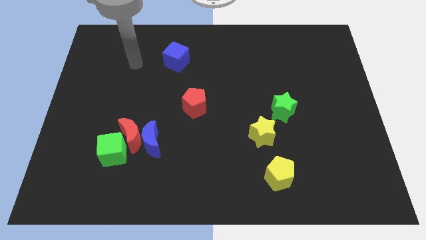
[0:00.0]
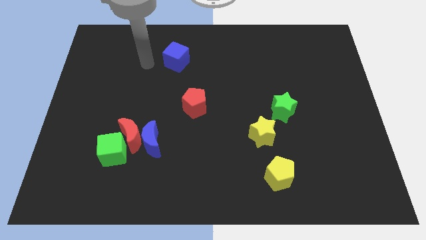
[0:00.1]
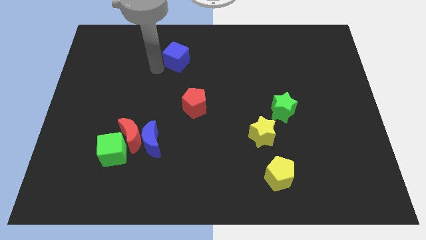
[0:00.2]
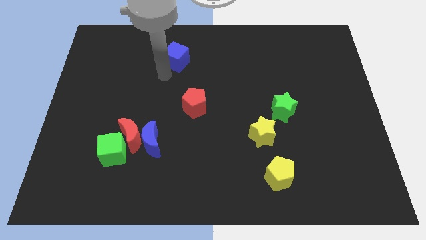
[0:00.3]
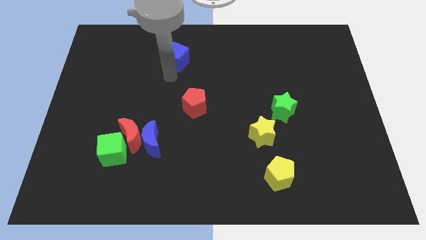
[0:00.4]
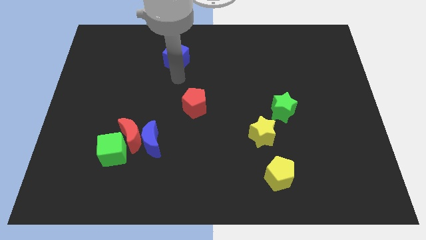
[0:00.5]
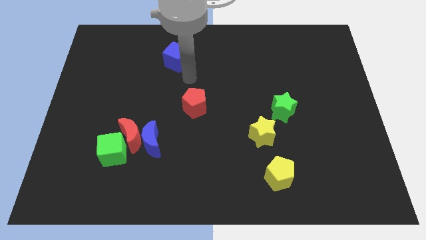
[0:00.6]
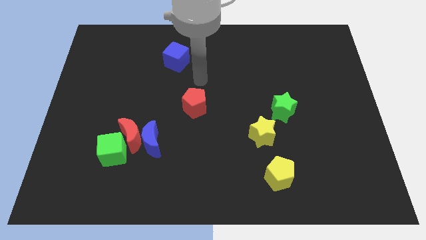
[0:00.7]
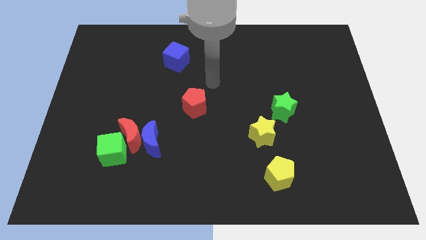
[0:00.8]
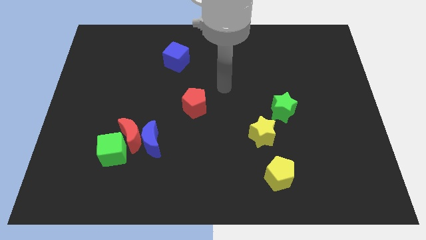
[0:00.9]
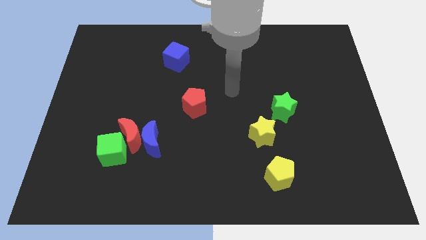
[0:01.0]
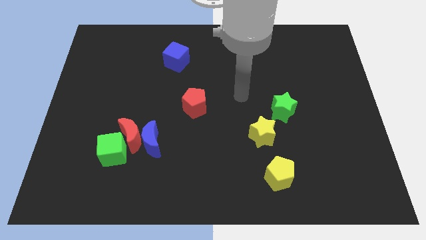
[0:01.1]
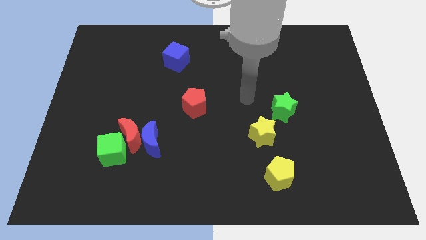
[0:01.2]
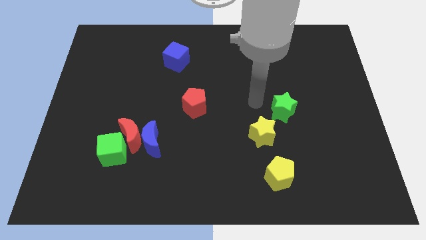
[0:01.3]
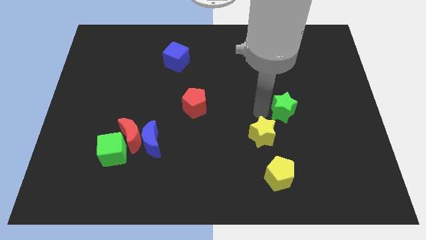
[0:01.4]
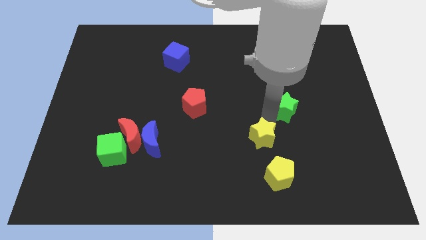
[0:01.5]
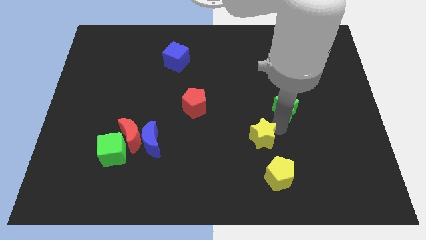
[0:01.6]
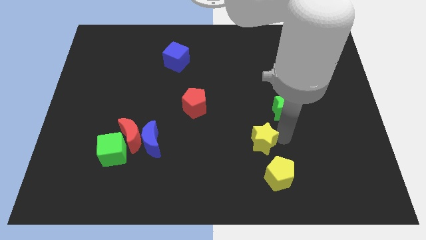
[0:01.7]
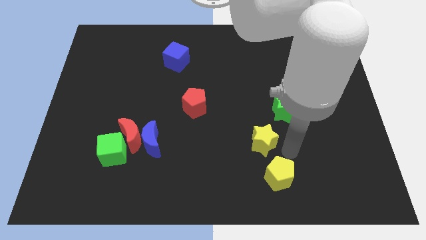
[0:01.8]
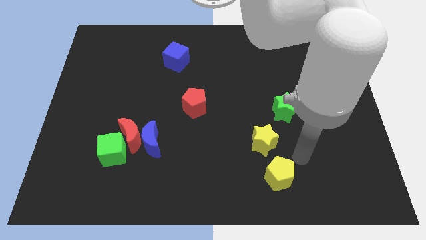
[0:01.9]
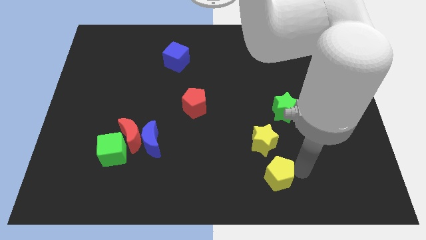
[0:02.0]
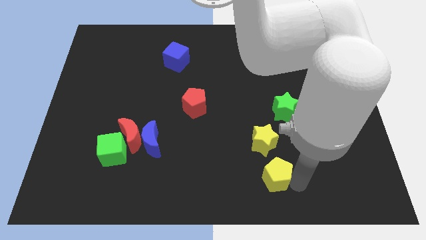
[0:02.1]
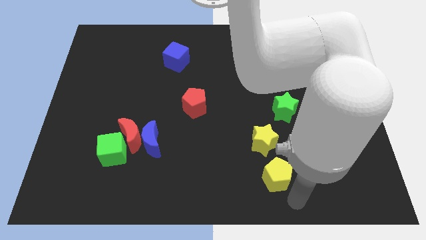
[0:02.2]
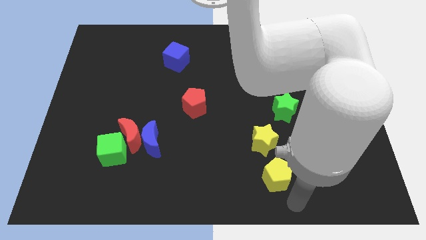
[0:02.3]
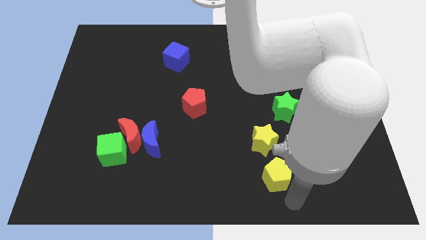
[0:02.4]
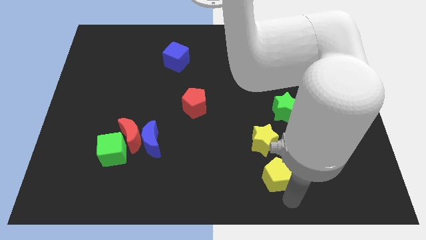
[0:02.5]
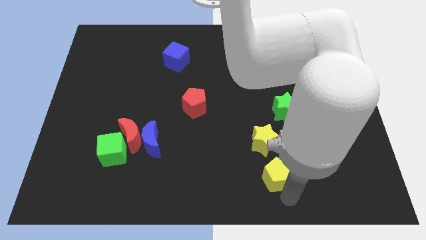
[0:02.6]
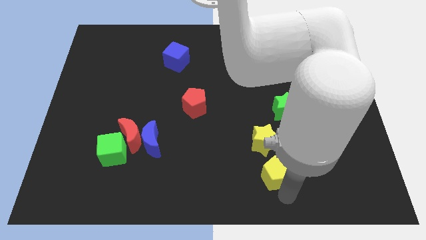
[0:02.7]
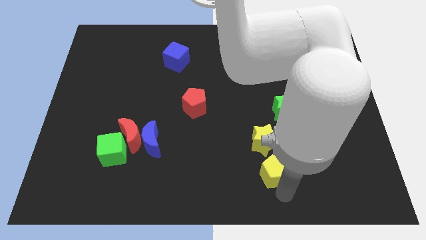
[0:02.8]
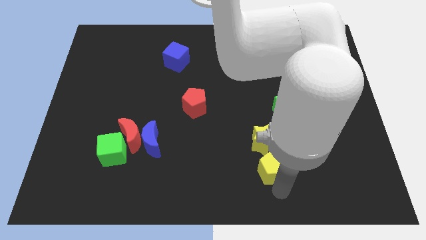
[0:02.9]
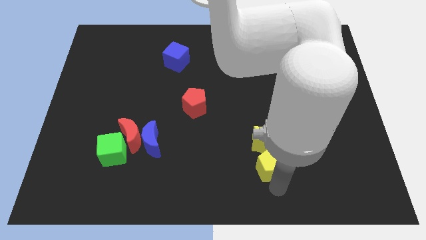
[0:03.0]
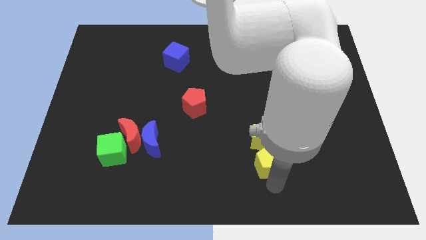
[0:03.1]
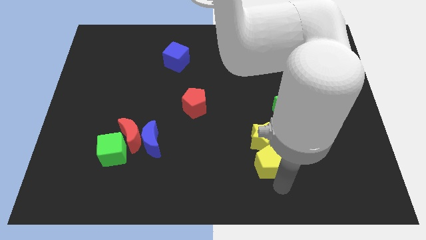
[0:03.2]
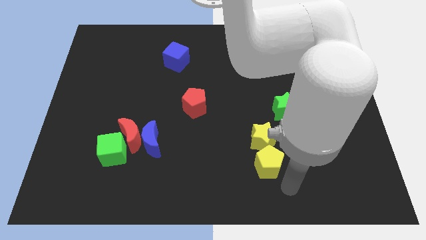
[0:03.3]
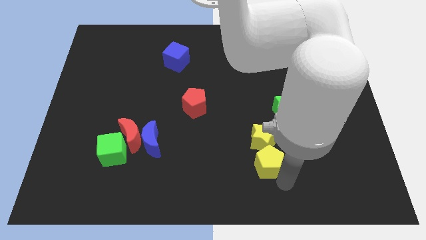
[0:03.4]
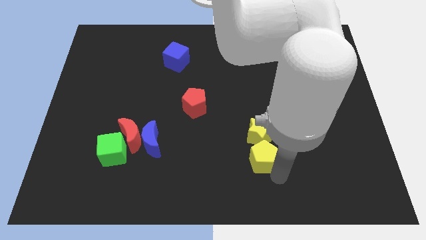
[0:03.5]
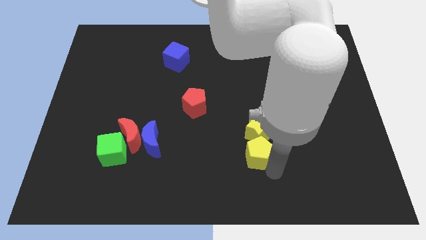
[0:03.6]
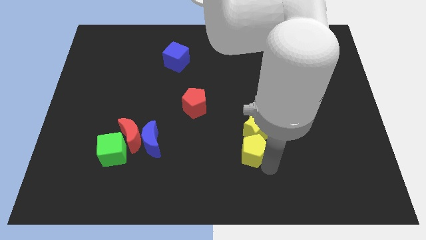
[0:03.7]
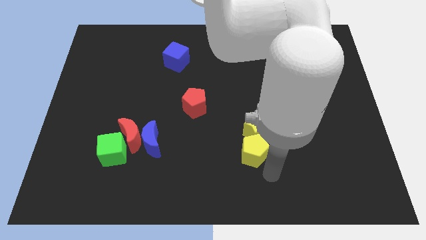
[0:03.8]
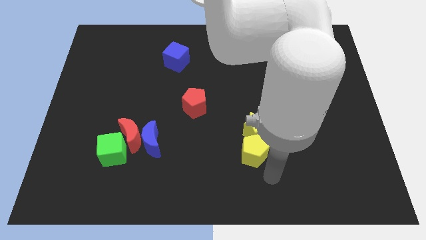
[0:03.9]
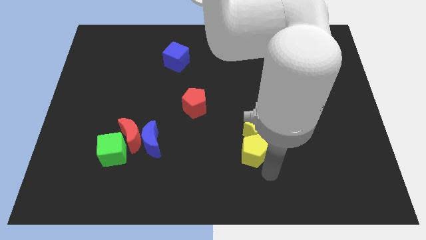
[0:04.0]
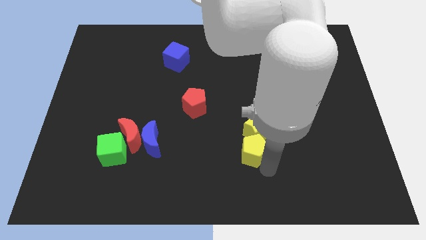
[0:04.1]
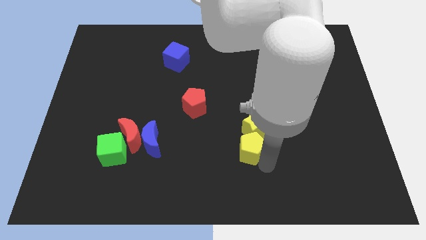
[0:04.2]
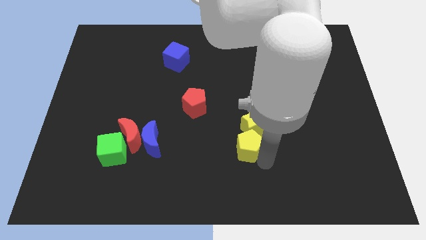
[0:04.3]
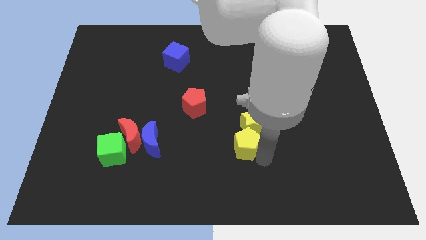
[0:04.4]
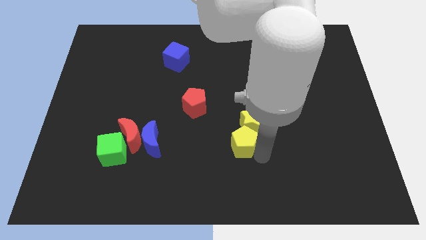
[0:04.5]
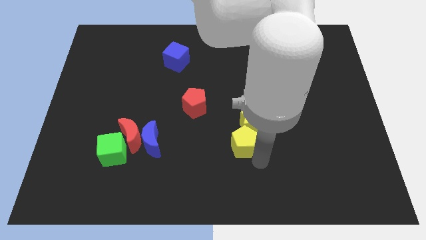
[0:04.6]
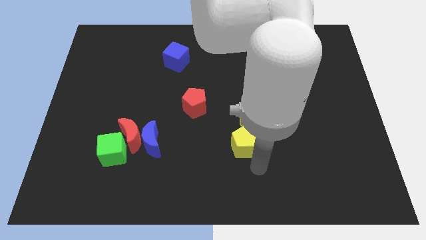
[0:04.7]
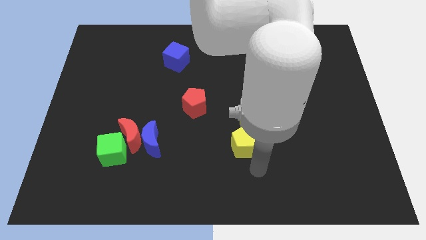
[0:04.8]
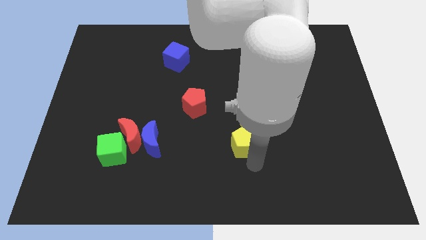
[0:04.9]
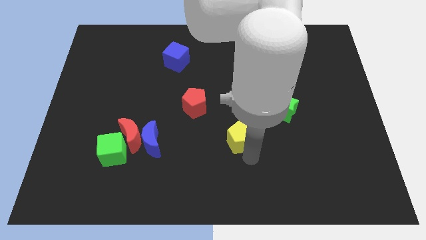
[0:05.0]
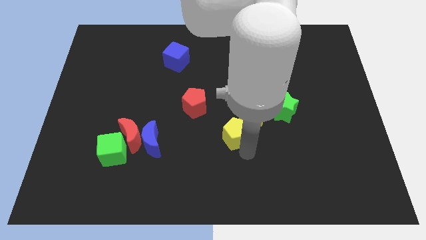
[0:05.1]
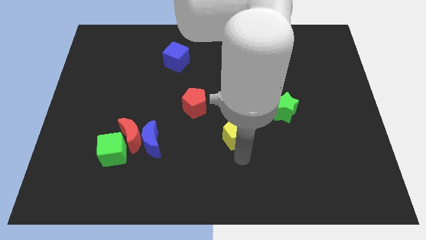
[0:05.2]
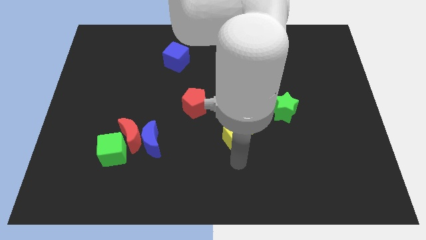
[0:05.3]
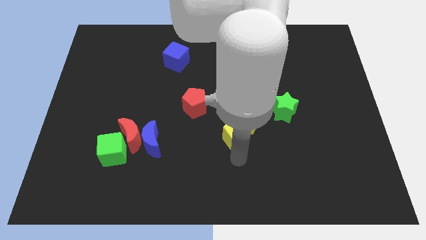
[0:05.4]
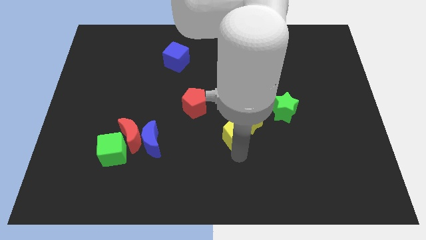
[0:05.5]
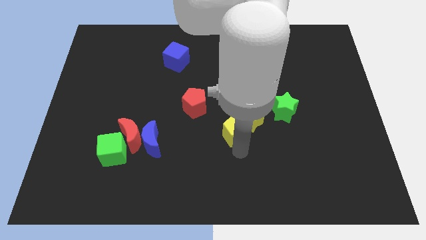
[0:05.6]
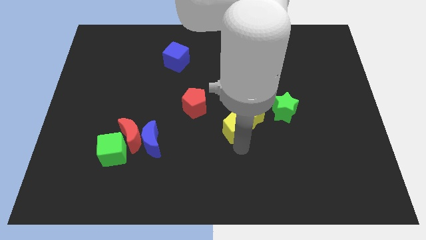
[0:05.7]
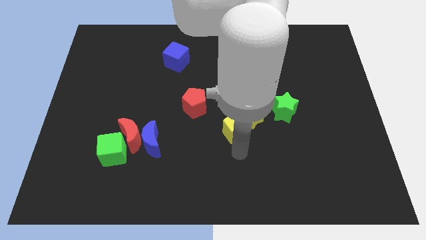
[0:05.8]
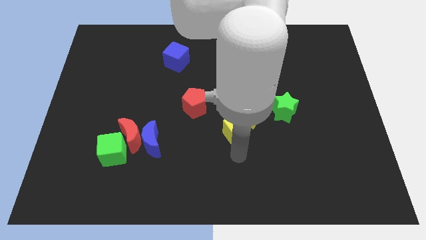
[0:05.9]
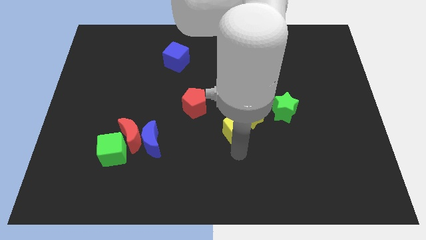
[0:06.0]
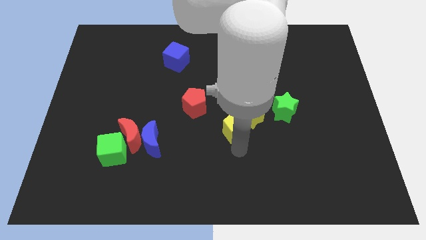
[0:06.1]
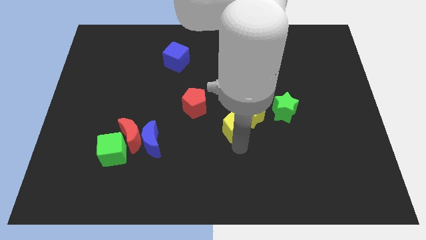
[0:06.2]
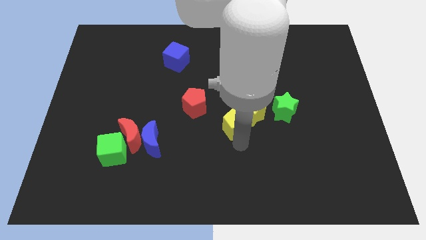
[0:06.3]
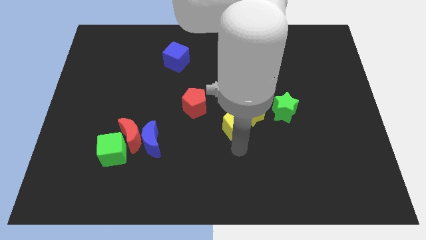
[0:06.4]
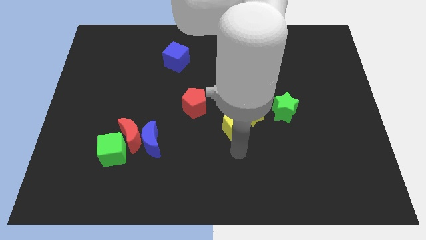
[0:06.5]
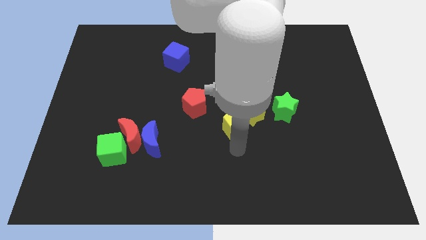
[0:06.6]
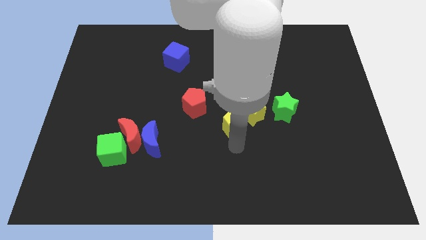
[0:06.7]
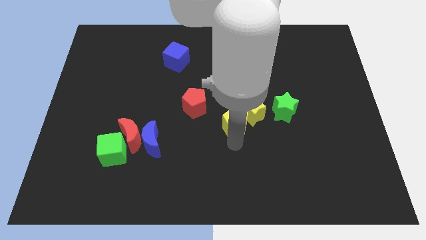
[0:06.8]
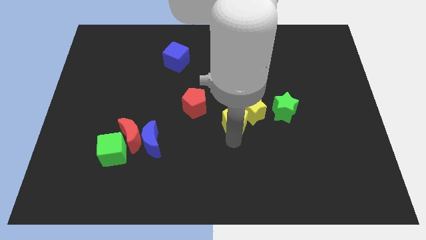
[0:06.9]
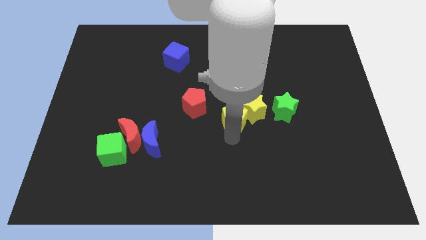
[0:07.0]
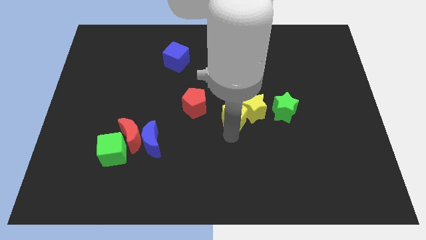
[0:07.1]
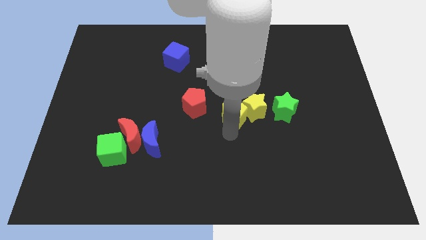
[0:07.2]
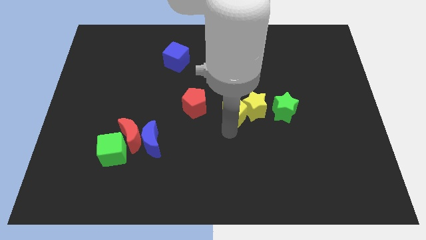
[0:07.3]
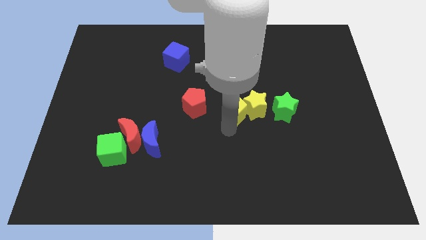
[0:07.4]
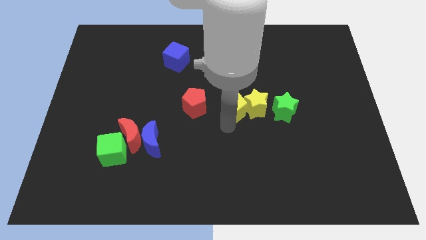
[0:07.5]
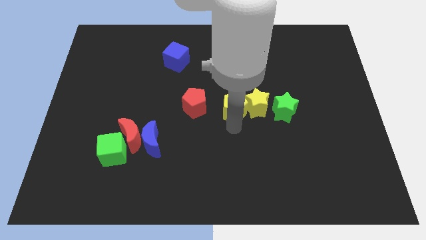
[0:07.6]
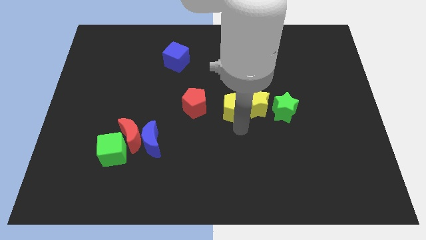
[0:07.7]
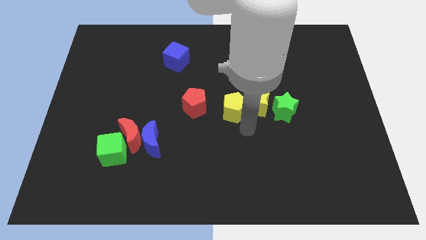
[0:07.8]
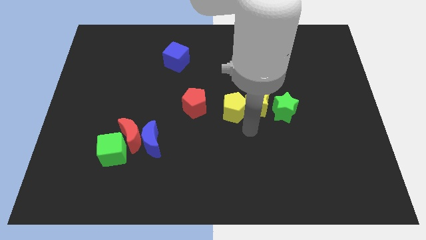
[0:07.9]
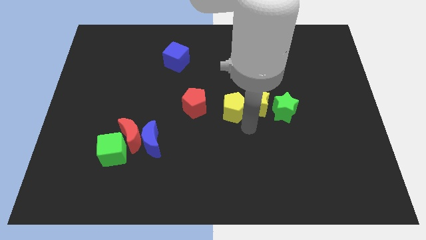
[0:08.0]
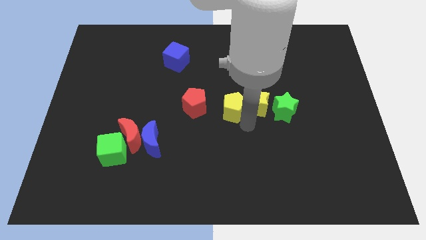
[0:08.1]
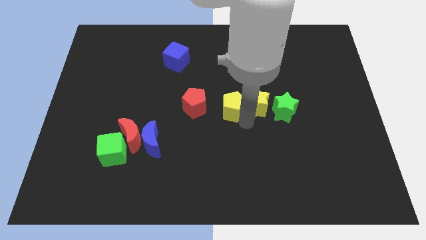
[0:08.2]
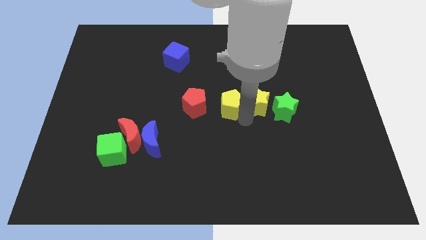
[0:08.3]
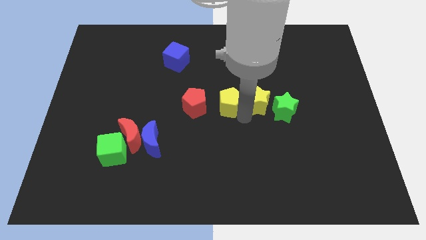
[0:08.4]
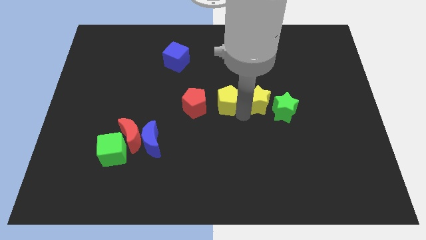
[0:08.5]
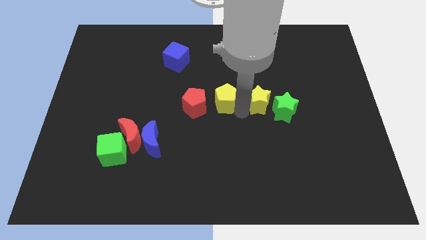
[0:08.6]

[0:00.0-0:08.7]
move the yellow pentagon diagonally up and to the right of the red pentagon
